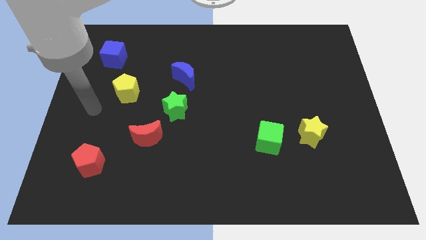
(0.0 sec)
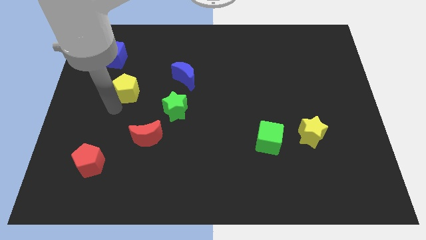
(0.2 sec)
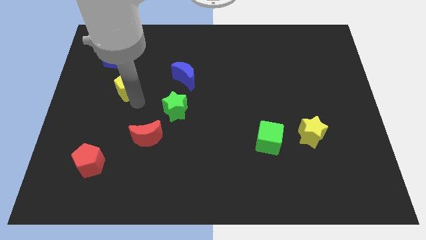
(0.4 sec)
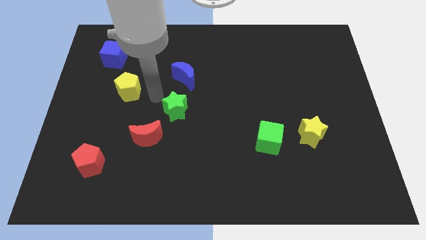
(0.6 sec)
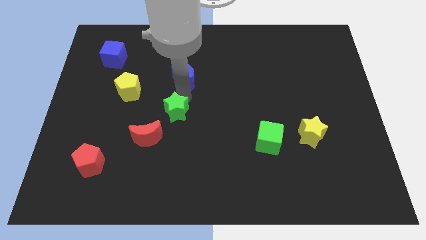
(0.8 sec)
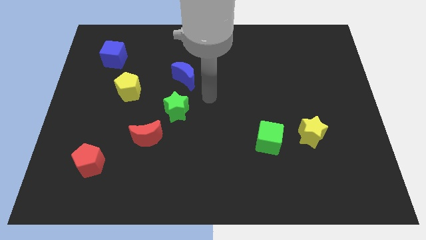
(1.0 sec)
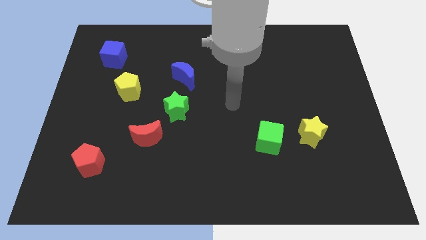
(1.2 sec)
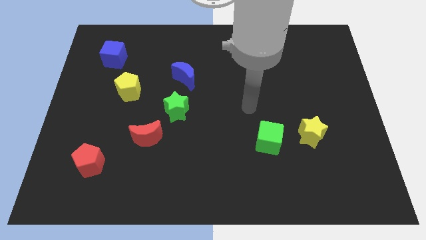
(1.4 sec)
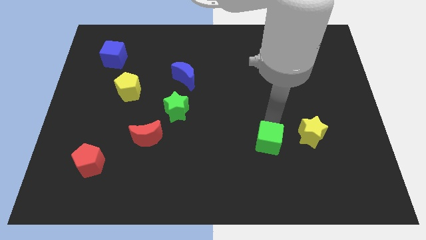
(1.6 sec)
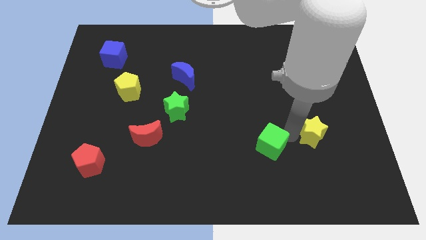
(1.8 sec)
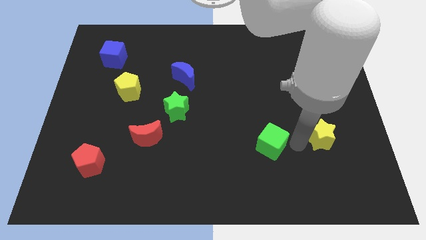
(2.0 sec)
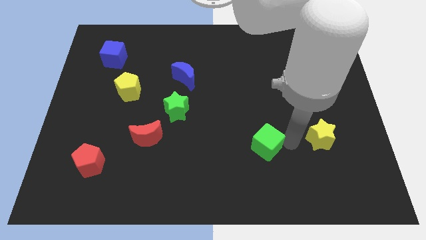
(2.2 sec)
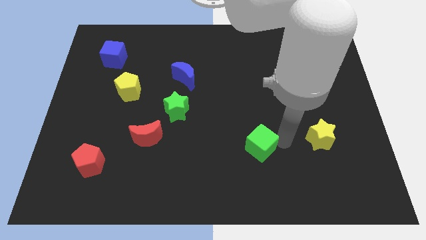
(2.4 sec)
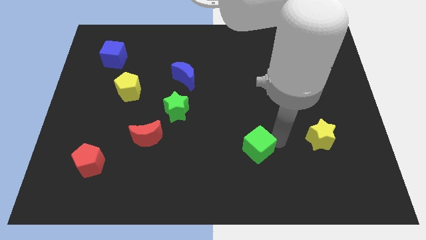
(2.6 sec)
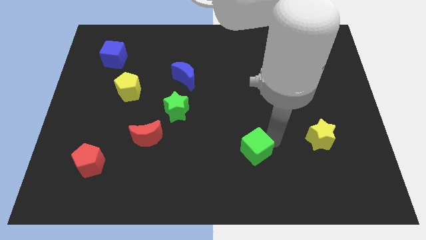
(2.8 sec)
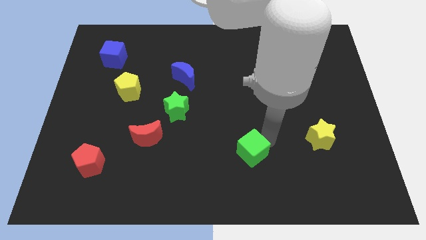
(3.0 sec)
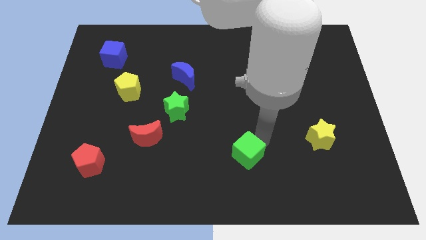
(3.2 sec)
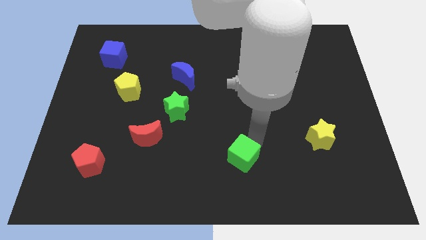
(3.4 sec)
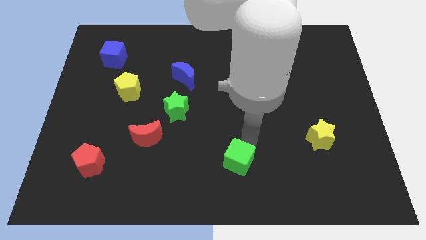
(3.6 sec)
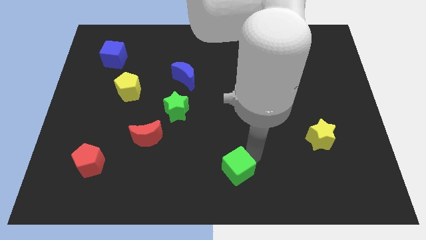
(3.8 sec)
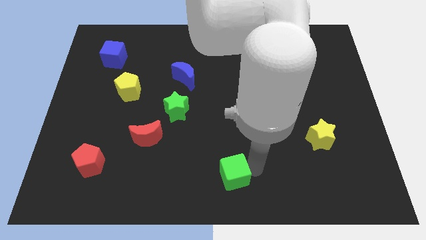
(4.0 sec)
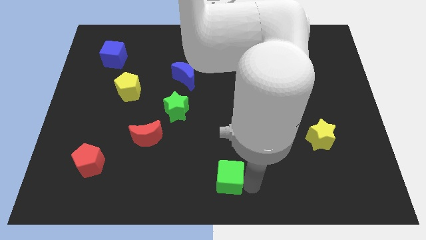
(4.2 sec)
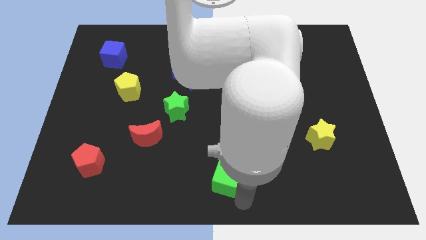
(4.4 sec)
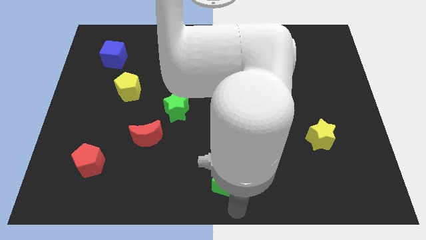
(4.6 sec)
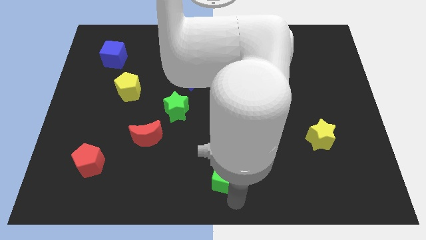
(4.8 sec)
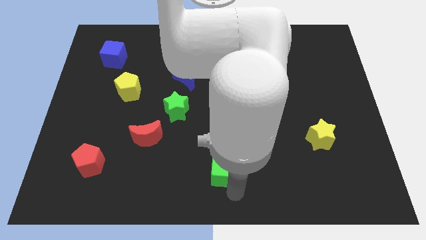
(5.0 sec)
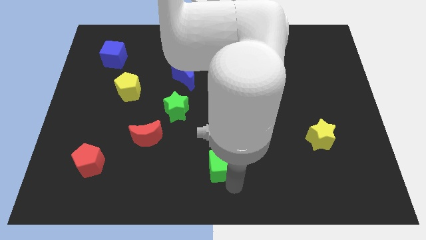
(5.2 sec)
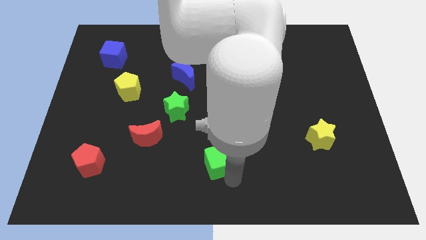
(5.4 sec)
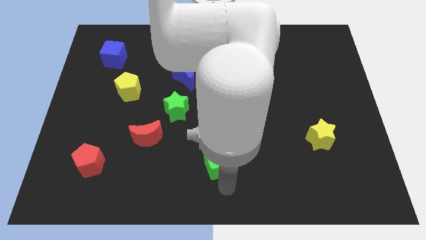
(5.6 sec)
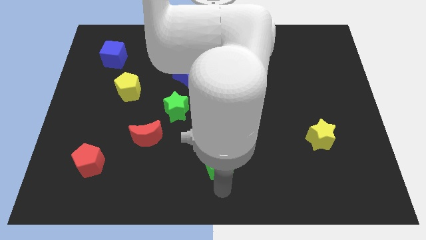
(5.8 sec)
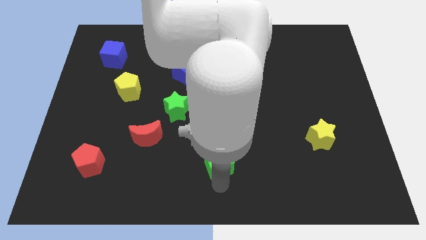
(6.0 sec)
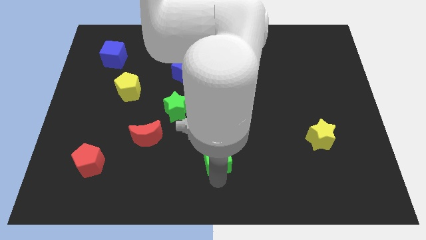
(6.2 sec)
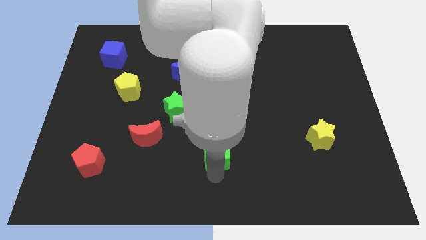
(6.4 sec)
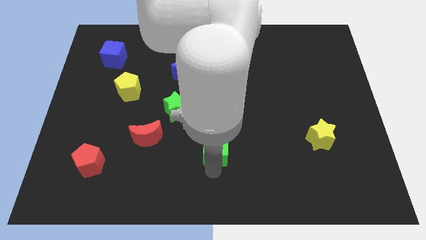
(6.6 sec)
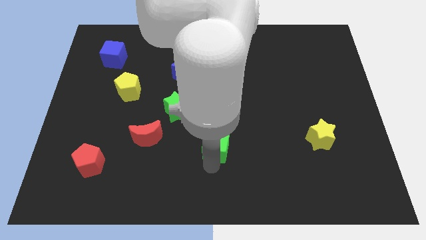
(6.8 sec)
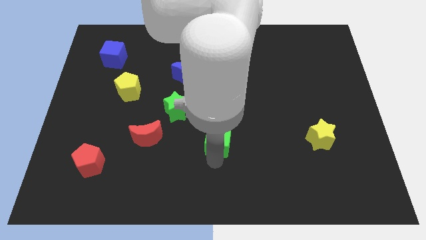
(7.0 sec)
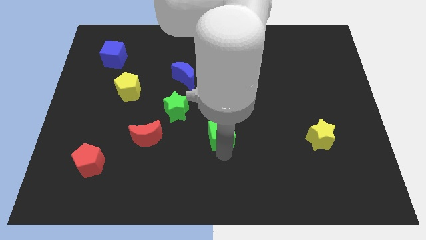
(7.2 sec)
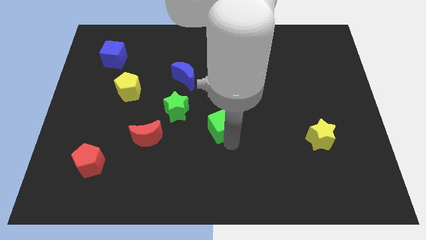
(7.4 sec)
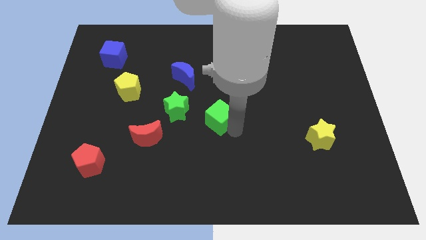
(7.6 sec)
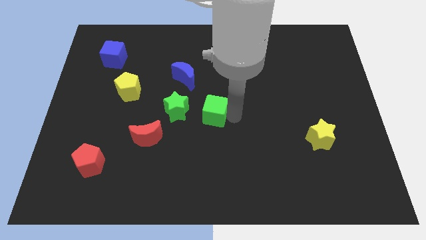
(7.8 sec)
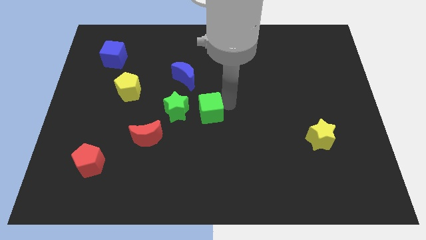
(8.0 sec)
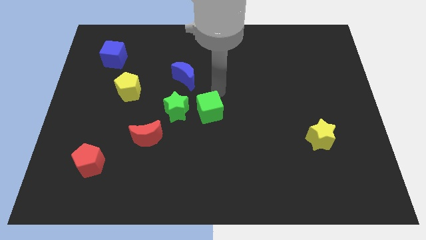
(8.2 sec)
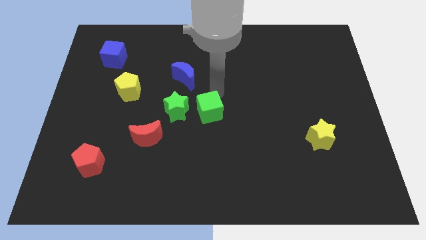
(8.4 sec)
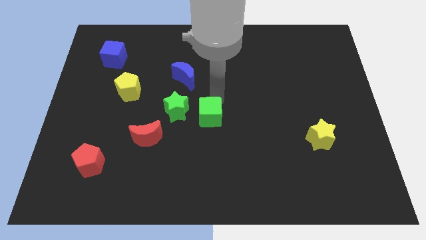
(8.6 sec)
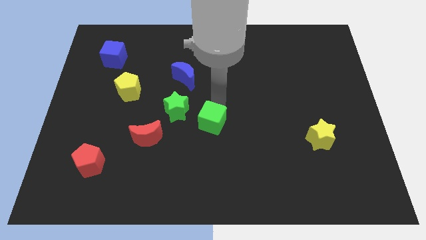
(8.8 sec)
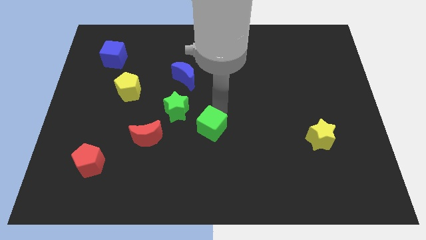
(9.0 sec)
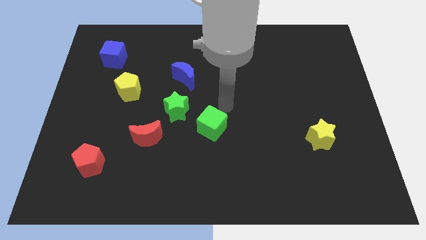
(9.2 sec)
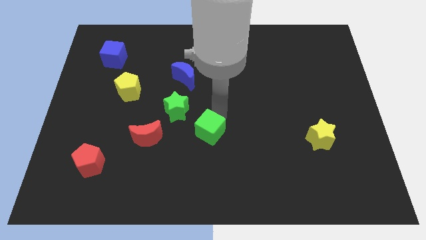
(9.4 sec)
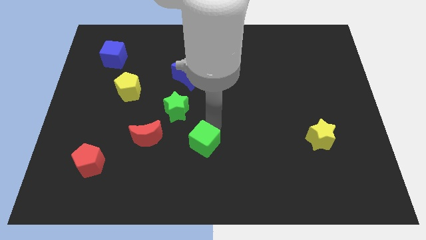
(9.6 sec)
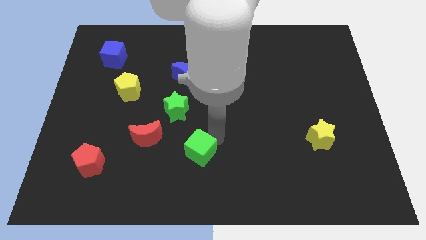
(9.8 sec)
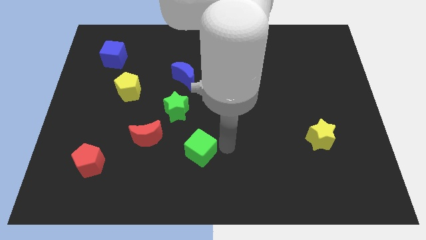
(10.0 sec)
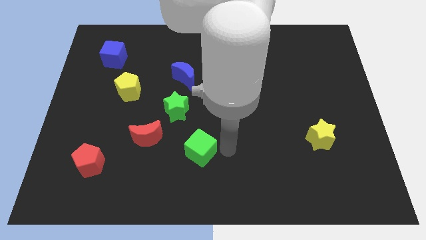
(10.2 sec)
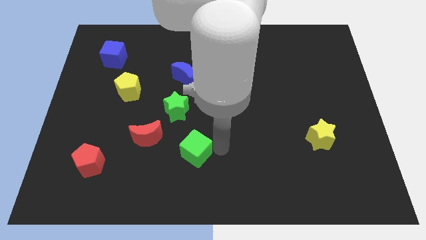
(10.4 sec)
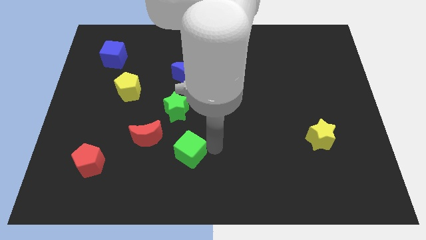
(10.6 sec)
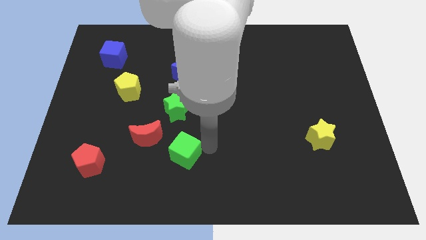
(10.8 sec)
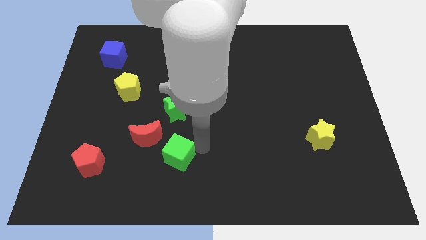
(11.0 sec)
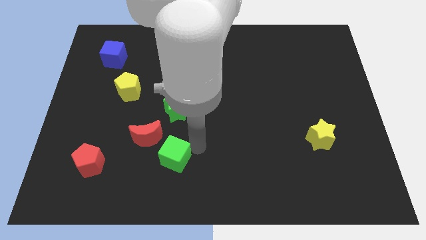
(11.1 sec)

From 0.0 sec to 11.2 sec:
push the green cube left

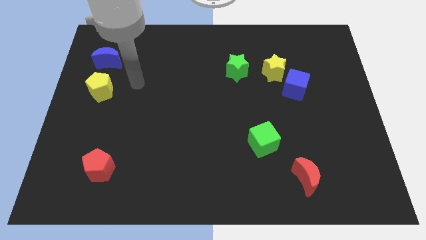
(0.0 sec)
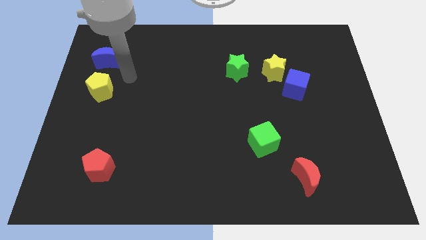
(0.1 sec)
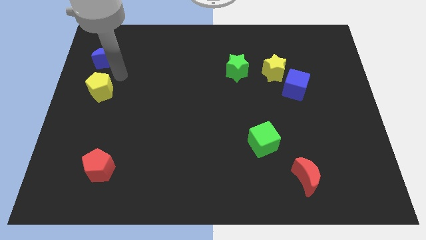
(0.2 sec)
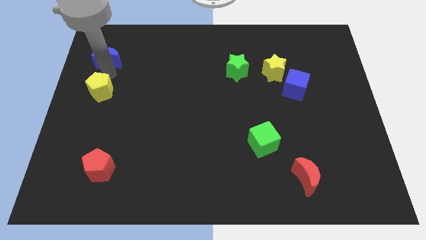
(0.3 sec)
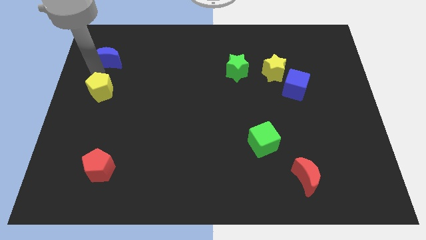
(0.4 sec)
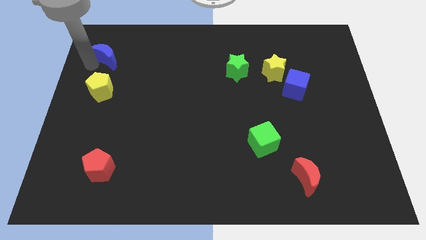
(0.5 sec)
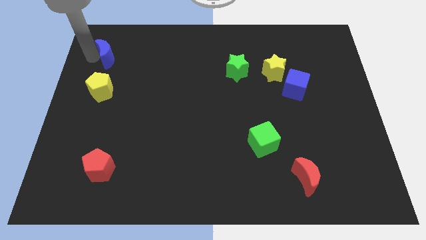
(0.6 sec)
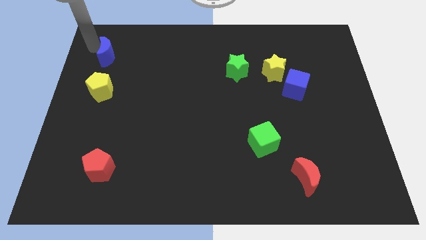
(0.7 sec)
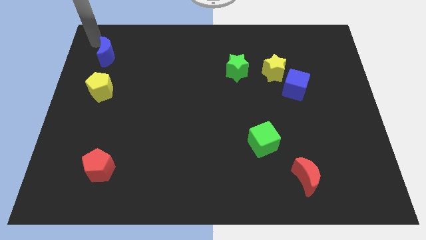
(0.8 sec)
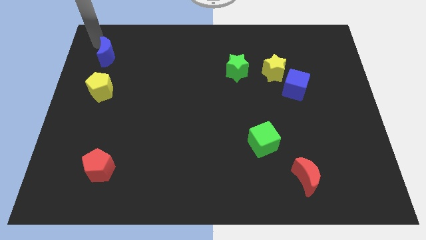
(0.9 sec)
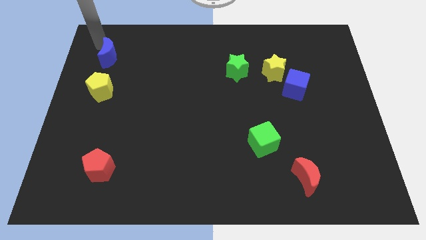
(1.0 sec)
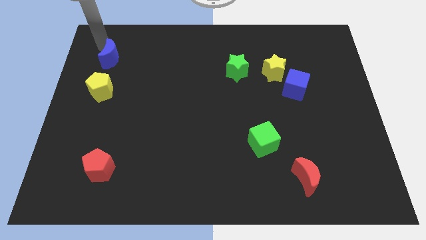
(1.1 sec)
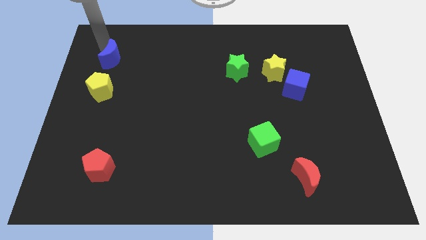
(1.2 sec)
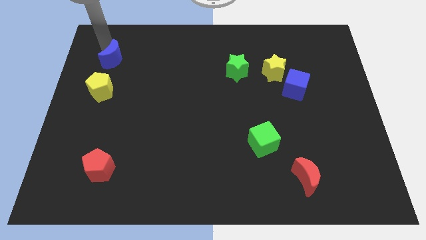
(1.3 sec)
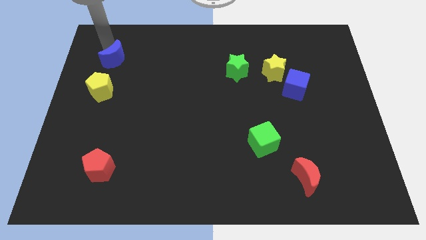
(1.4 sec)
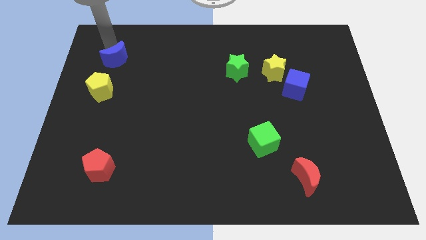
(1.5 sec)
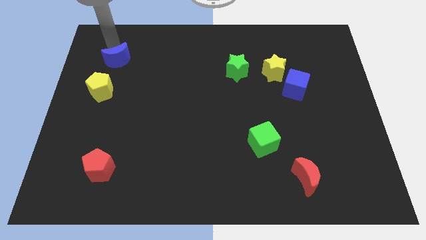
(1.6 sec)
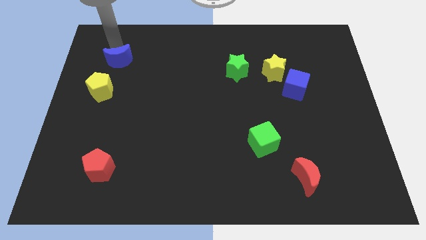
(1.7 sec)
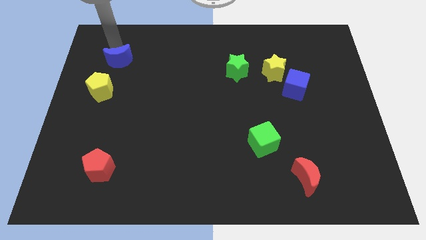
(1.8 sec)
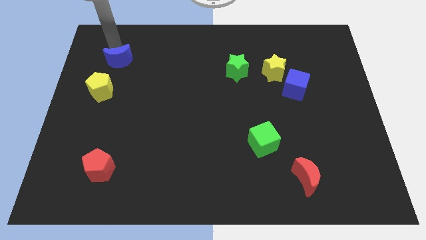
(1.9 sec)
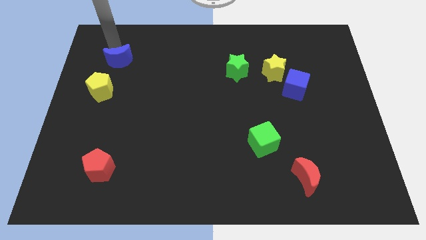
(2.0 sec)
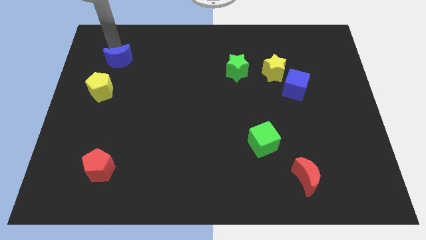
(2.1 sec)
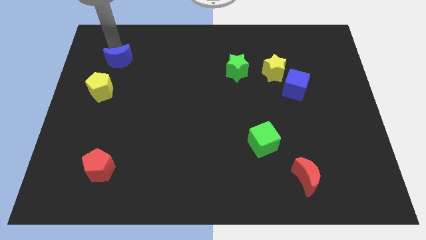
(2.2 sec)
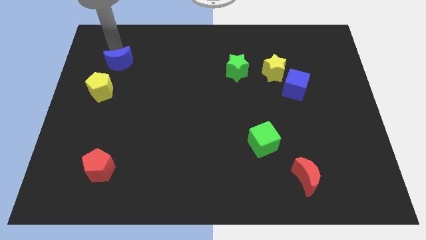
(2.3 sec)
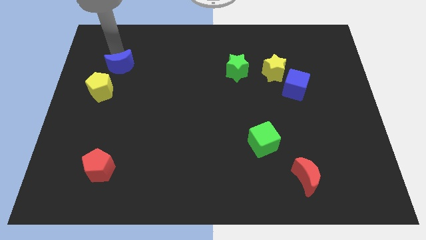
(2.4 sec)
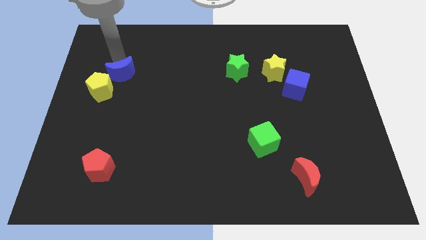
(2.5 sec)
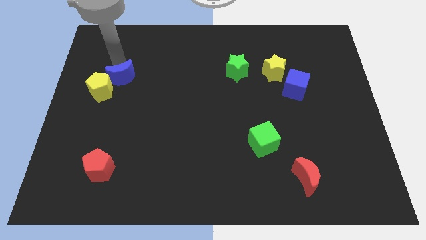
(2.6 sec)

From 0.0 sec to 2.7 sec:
move the blue moon downwards and to the right somewhat
